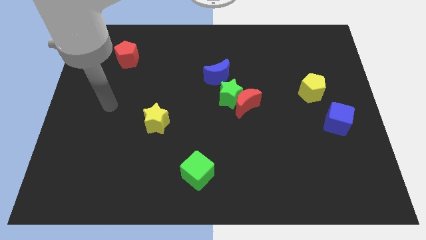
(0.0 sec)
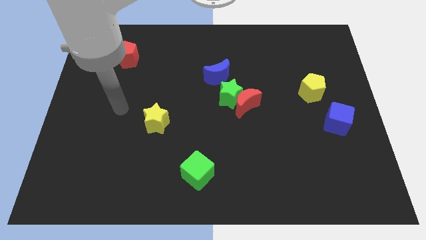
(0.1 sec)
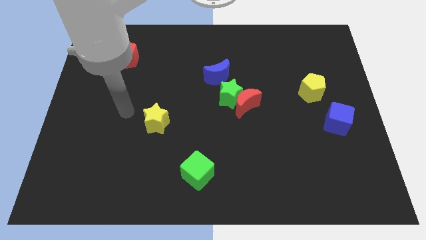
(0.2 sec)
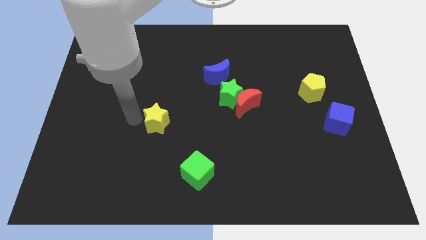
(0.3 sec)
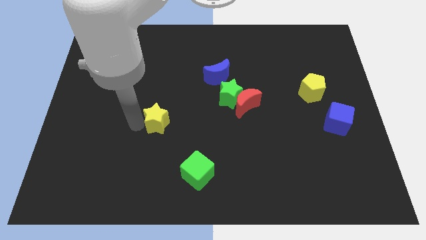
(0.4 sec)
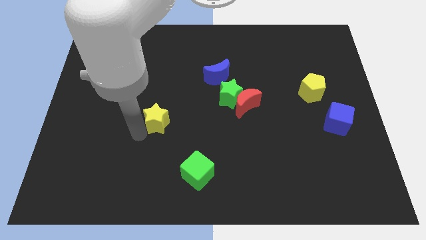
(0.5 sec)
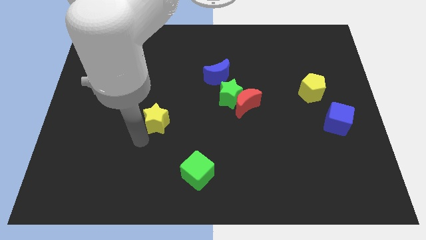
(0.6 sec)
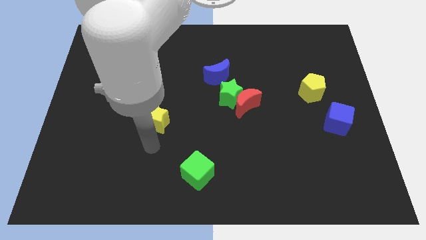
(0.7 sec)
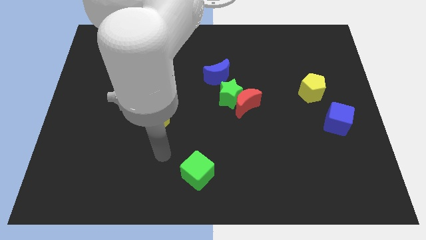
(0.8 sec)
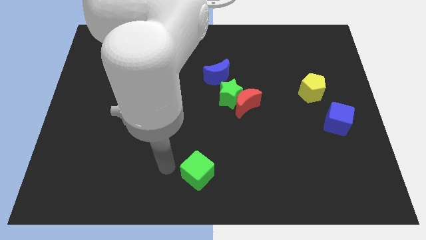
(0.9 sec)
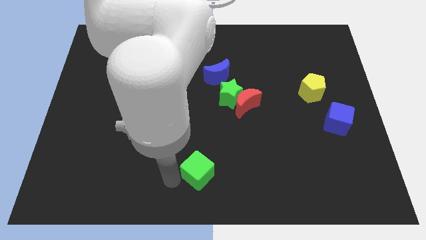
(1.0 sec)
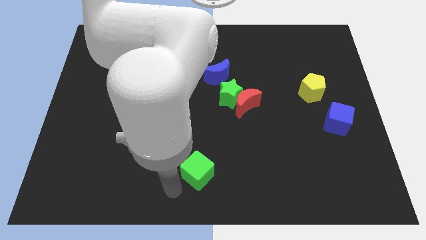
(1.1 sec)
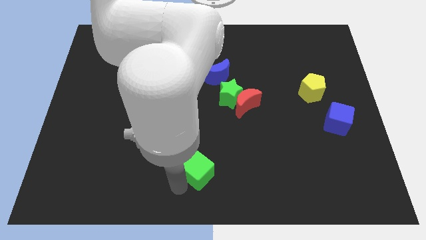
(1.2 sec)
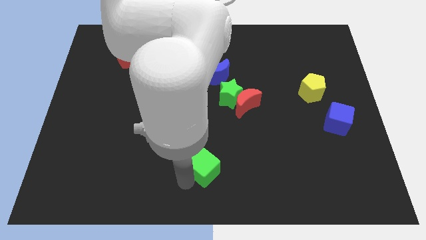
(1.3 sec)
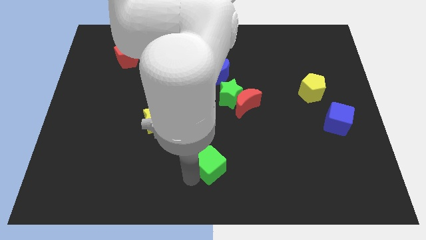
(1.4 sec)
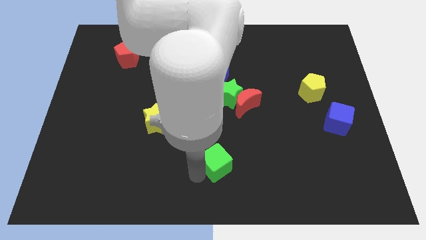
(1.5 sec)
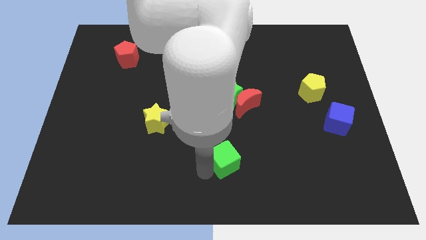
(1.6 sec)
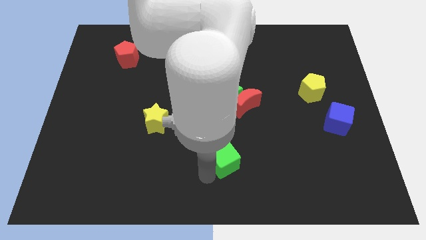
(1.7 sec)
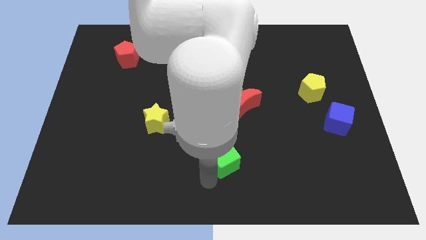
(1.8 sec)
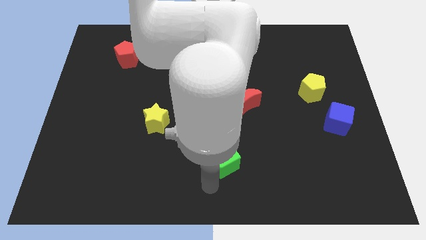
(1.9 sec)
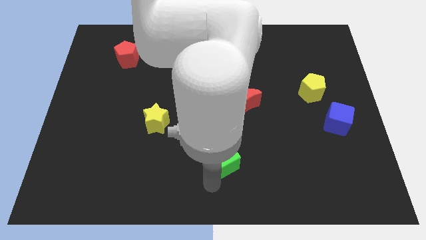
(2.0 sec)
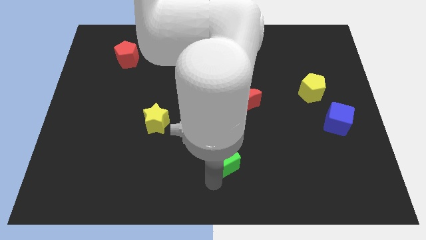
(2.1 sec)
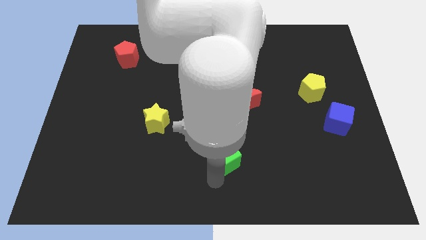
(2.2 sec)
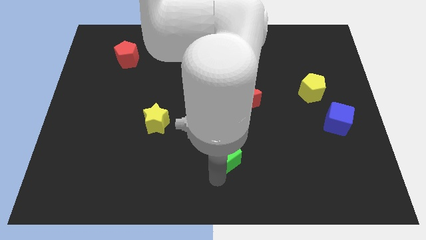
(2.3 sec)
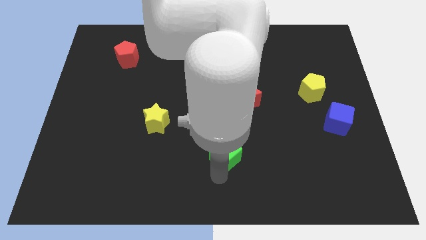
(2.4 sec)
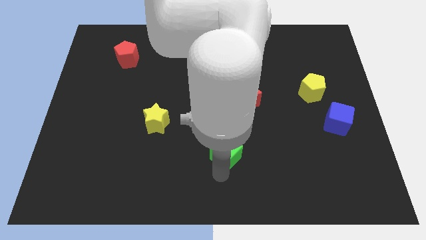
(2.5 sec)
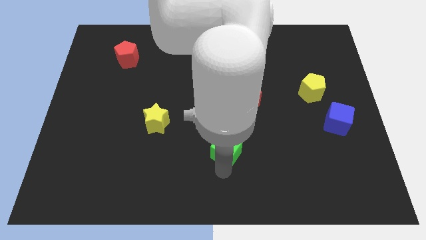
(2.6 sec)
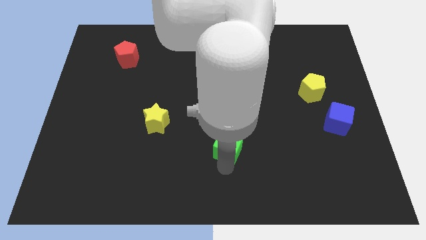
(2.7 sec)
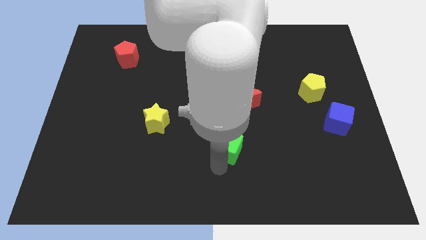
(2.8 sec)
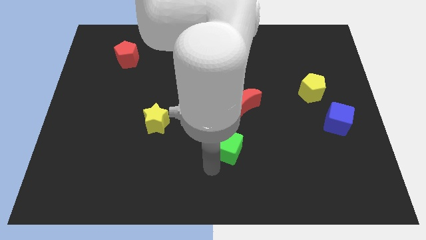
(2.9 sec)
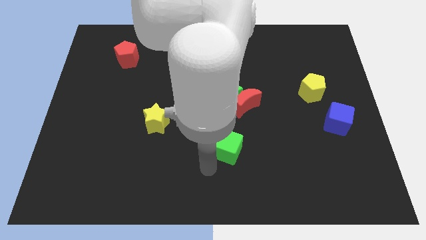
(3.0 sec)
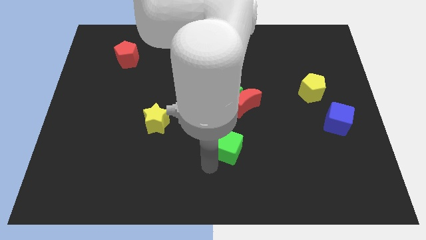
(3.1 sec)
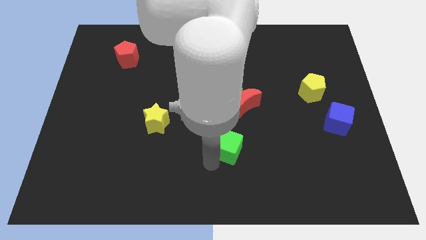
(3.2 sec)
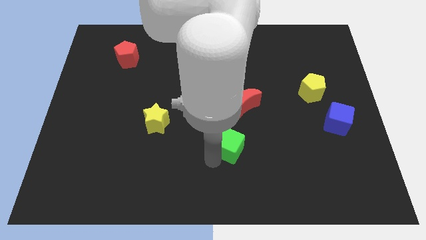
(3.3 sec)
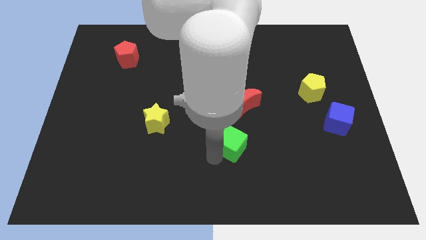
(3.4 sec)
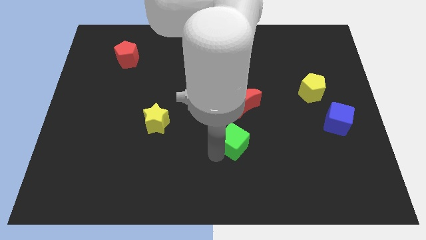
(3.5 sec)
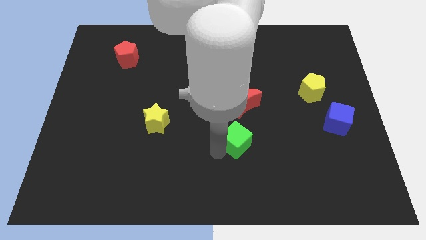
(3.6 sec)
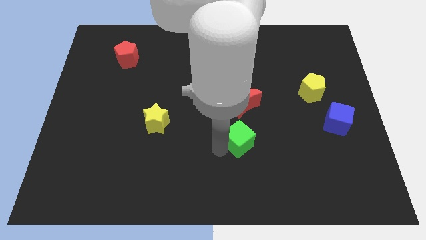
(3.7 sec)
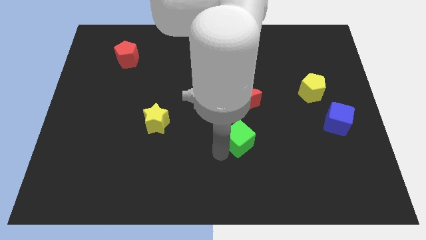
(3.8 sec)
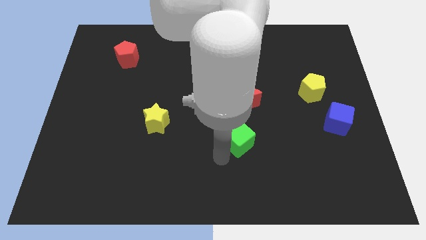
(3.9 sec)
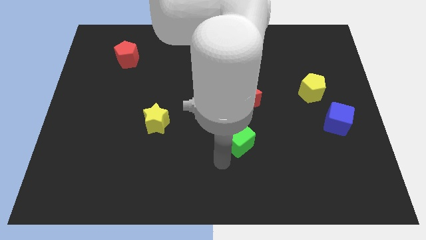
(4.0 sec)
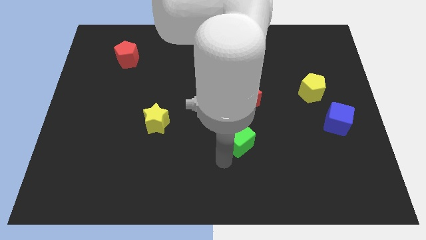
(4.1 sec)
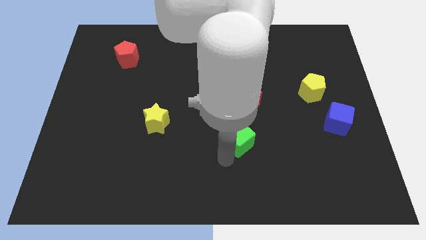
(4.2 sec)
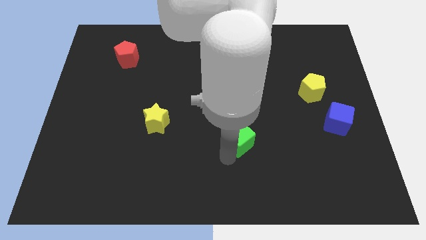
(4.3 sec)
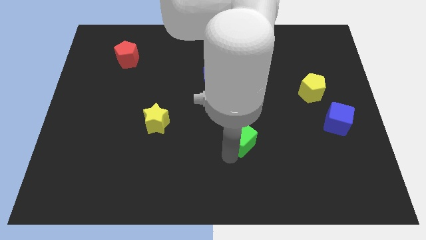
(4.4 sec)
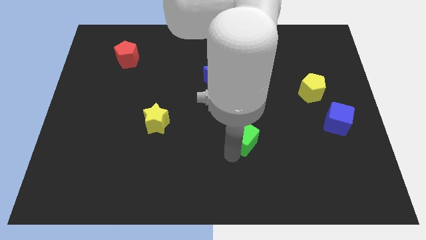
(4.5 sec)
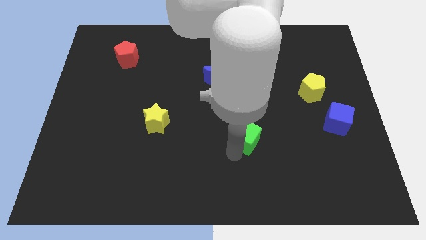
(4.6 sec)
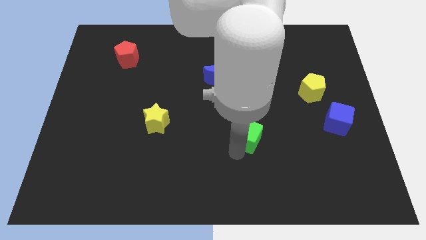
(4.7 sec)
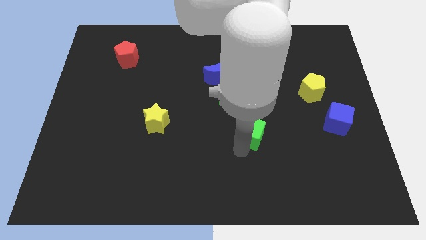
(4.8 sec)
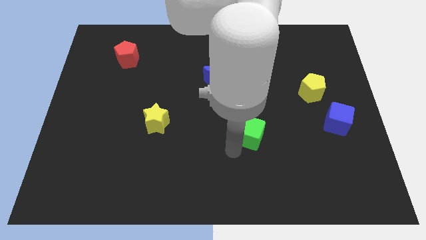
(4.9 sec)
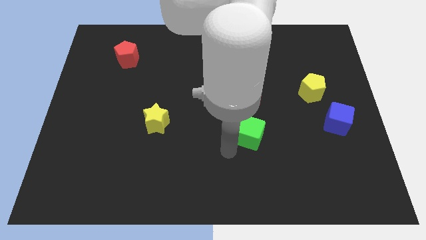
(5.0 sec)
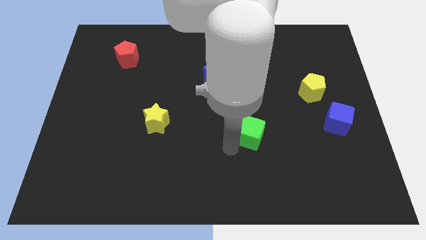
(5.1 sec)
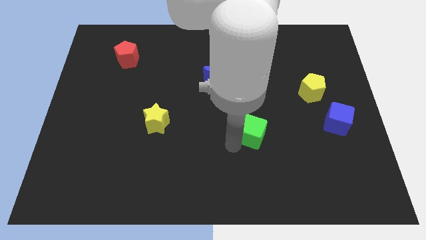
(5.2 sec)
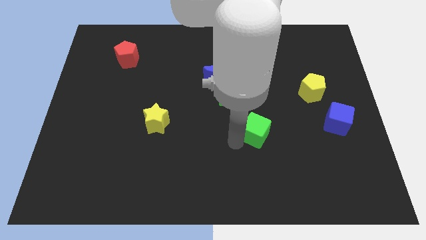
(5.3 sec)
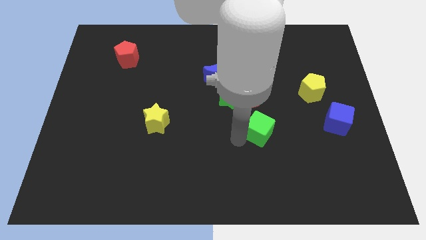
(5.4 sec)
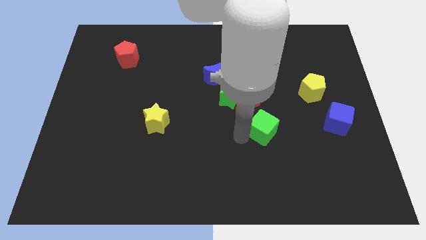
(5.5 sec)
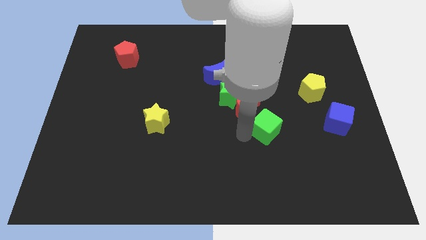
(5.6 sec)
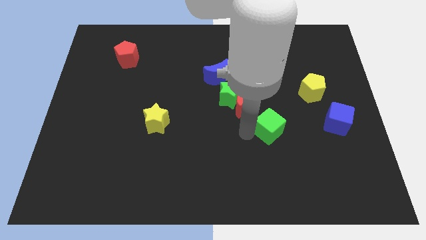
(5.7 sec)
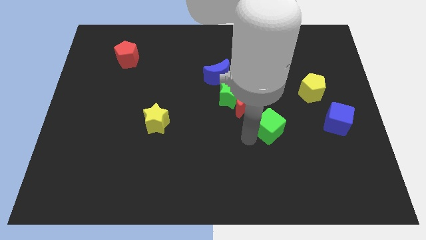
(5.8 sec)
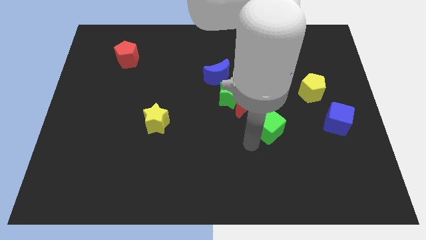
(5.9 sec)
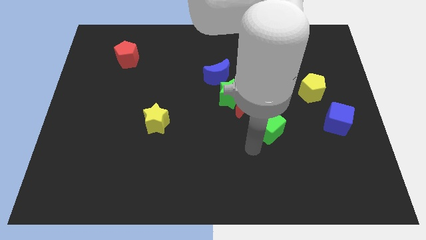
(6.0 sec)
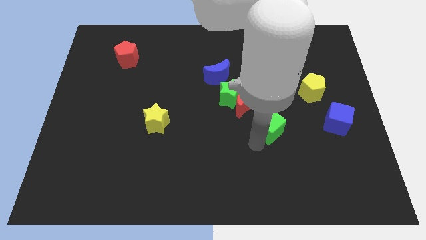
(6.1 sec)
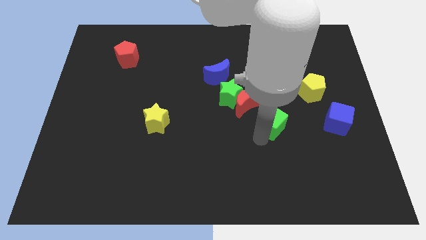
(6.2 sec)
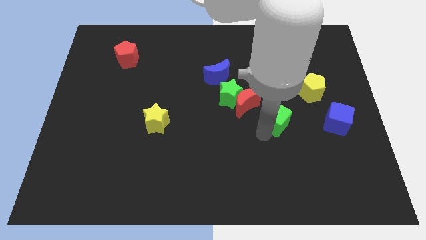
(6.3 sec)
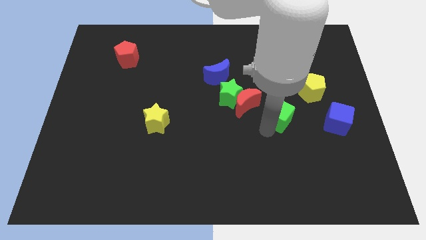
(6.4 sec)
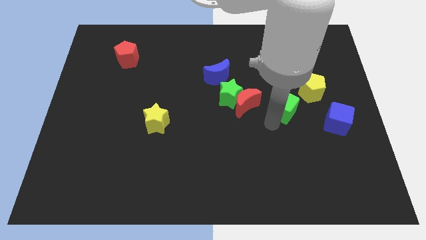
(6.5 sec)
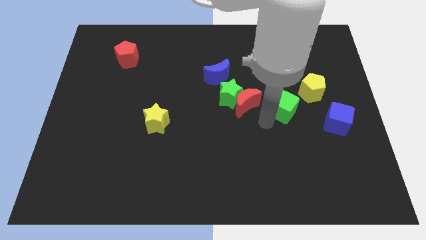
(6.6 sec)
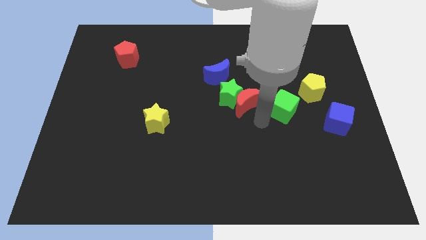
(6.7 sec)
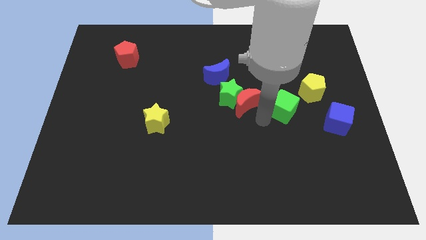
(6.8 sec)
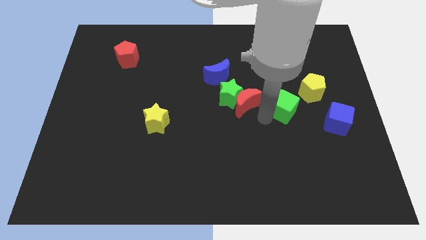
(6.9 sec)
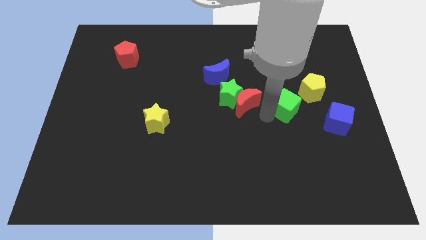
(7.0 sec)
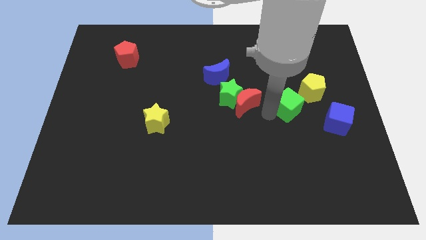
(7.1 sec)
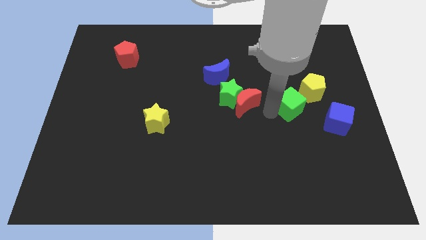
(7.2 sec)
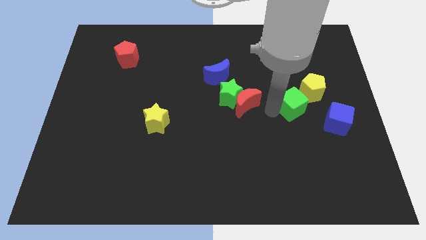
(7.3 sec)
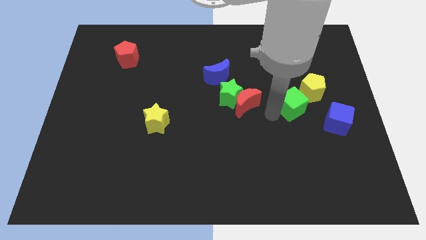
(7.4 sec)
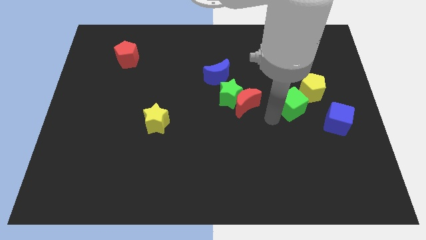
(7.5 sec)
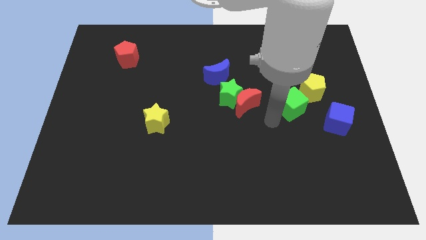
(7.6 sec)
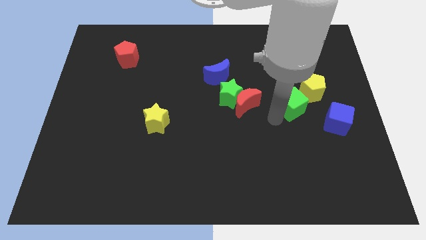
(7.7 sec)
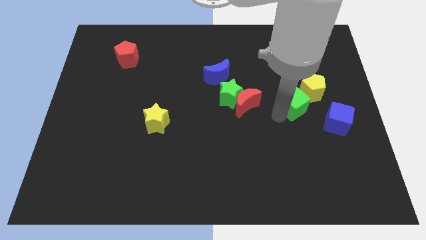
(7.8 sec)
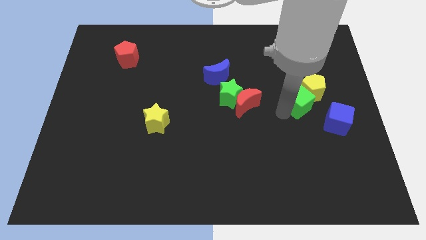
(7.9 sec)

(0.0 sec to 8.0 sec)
move the green cube towards the yellow pentagon
